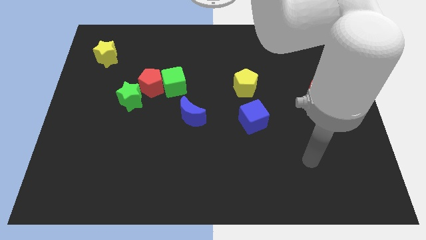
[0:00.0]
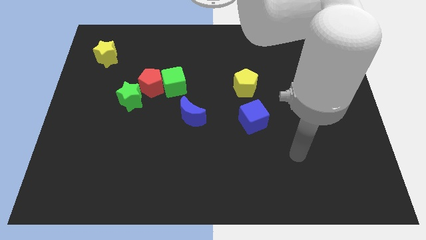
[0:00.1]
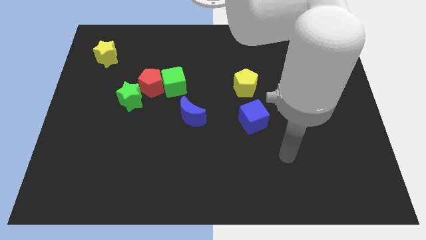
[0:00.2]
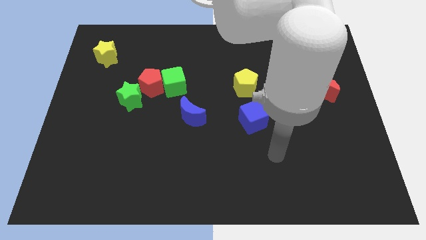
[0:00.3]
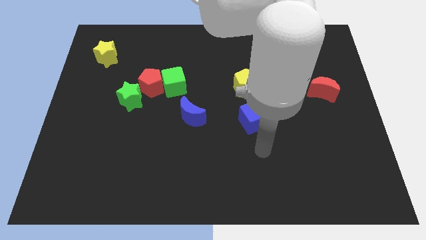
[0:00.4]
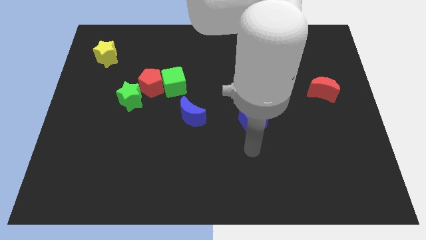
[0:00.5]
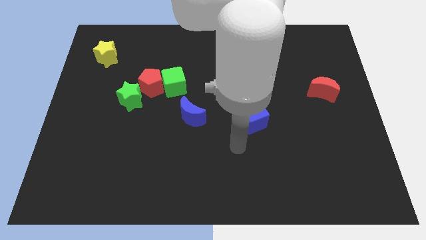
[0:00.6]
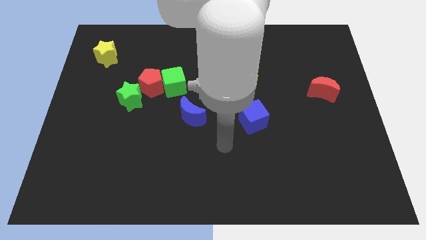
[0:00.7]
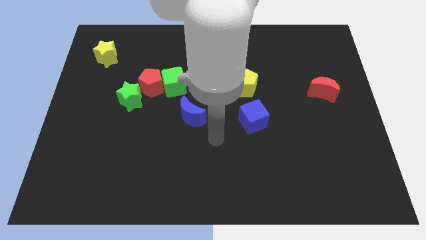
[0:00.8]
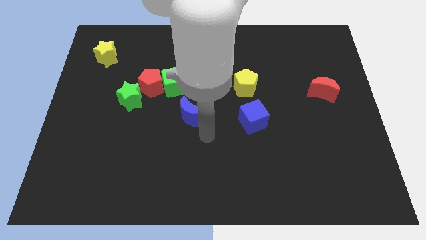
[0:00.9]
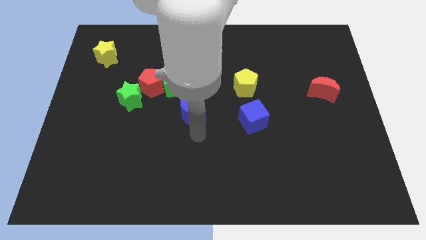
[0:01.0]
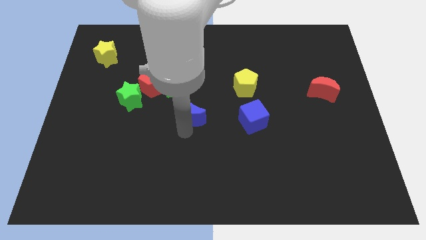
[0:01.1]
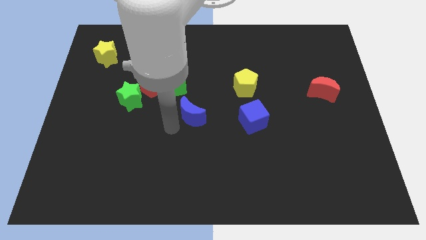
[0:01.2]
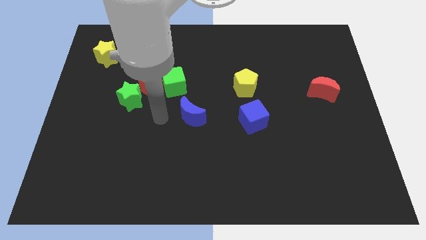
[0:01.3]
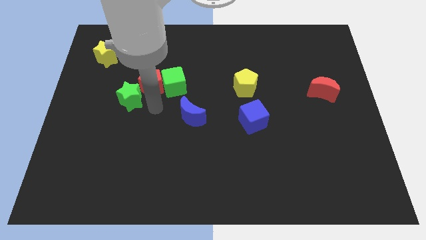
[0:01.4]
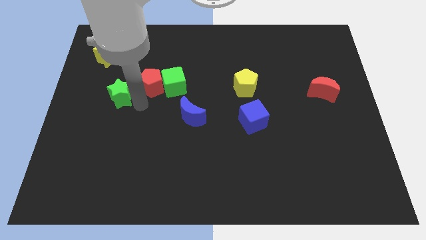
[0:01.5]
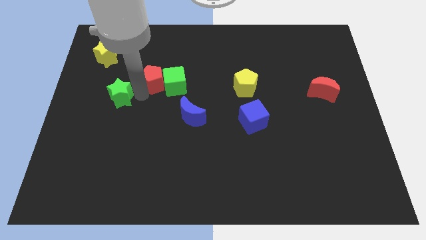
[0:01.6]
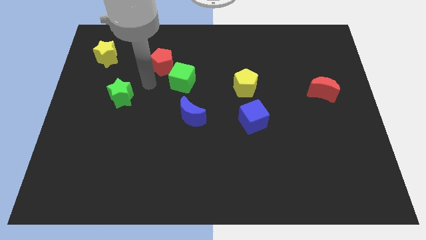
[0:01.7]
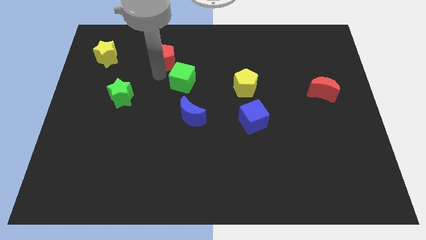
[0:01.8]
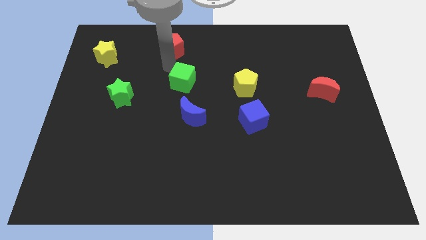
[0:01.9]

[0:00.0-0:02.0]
separate the green cube from the red pentagon

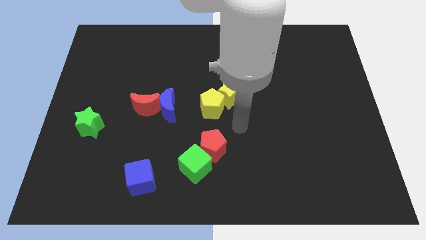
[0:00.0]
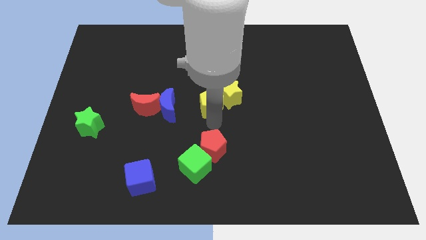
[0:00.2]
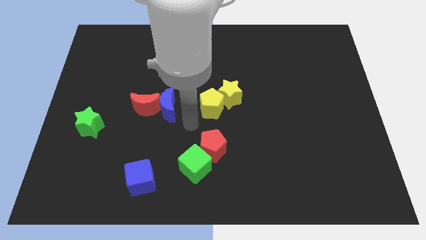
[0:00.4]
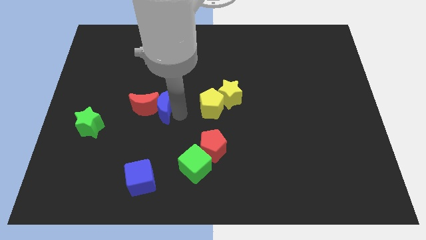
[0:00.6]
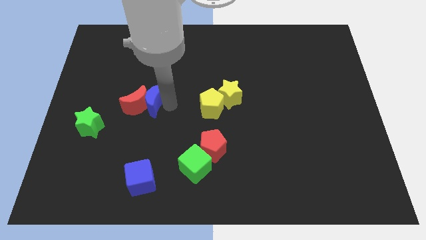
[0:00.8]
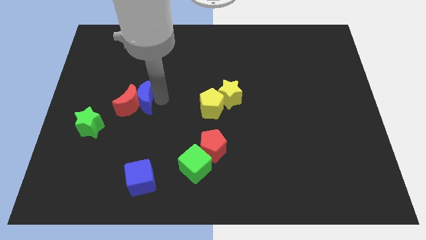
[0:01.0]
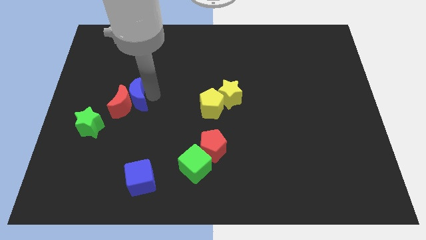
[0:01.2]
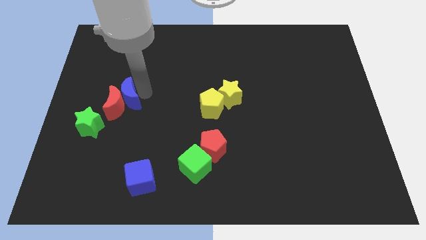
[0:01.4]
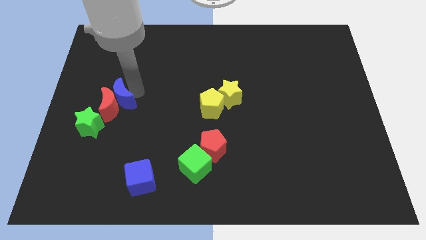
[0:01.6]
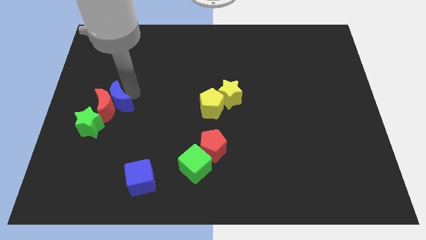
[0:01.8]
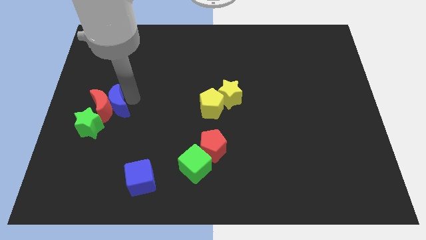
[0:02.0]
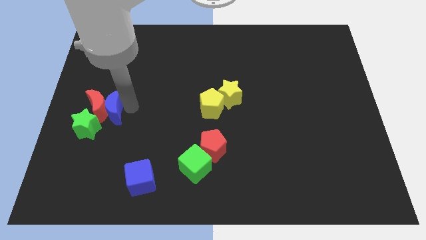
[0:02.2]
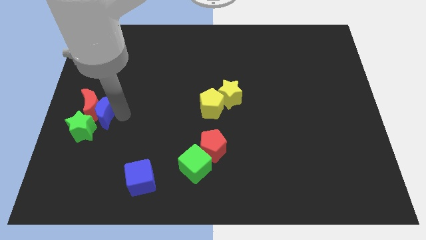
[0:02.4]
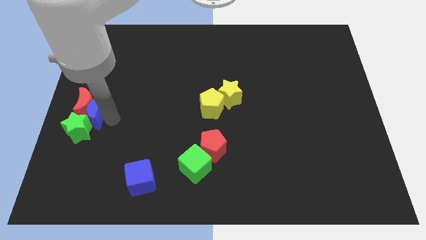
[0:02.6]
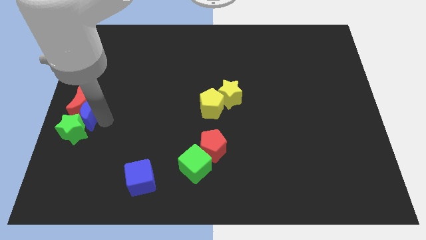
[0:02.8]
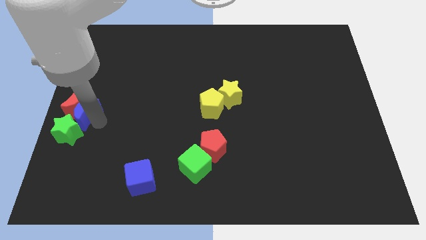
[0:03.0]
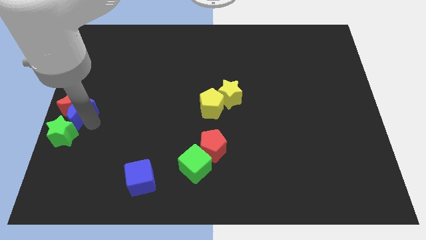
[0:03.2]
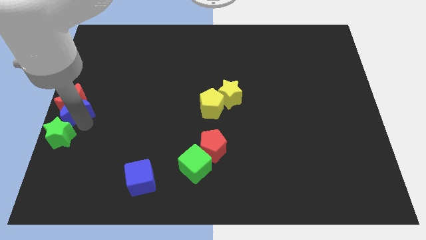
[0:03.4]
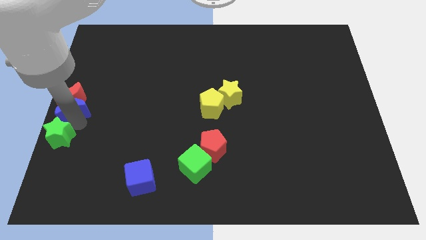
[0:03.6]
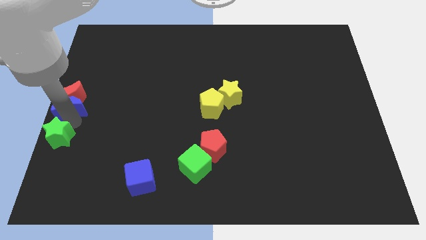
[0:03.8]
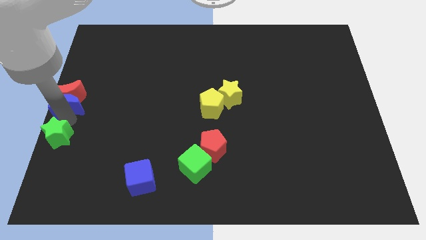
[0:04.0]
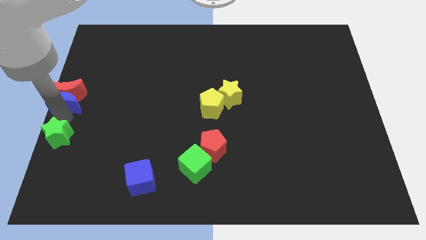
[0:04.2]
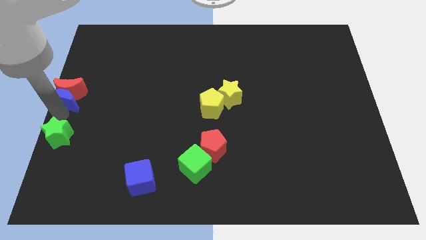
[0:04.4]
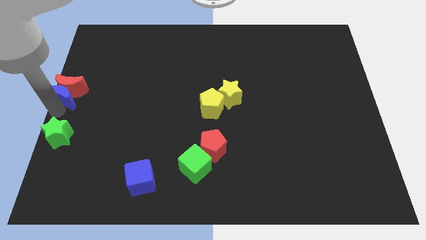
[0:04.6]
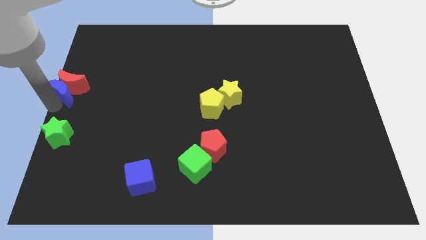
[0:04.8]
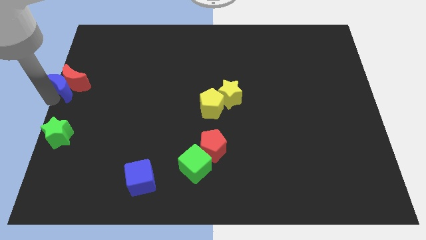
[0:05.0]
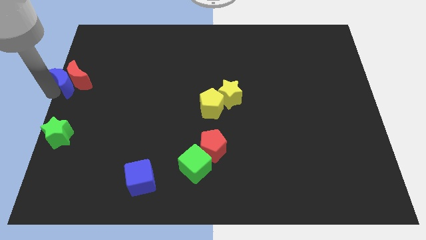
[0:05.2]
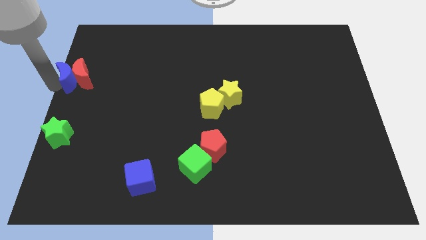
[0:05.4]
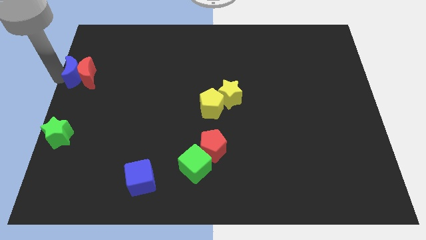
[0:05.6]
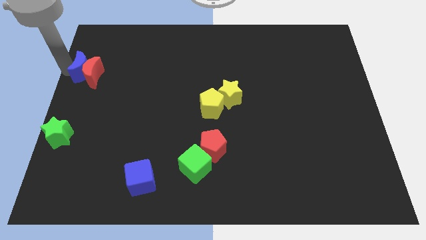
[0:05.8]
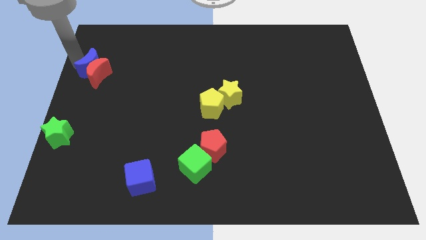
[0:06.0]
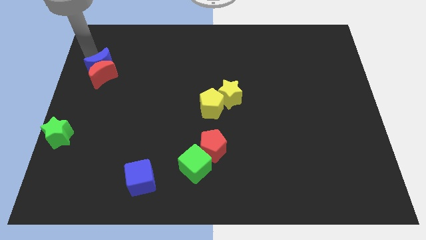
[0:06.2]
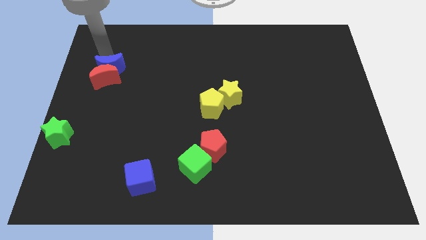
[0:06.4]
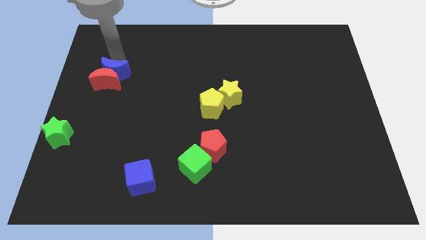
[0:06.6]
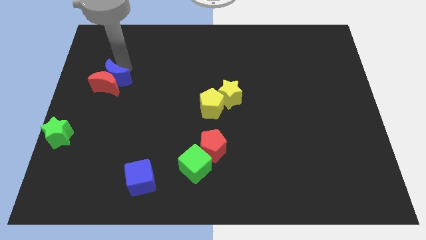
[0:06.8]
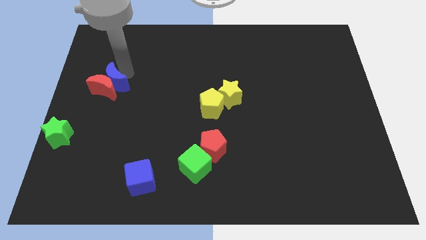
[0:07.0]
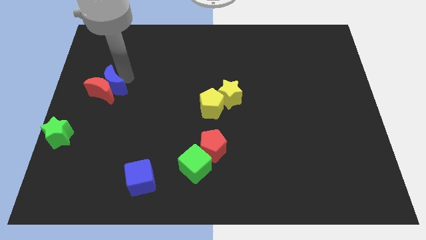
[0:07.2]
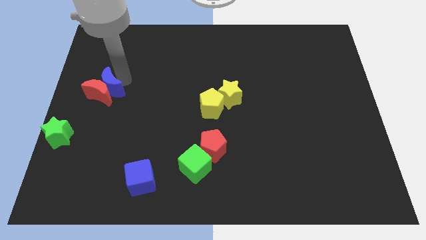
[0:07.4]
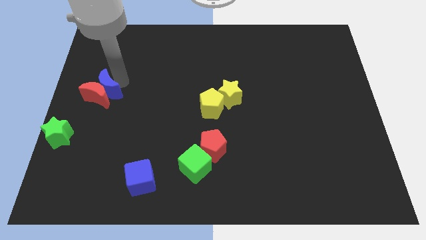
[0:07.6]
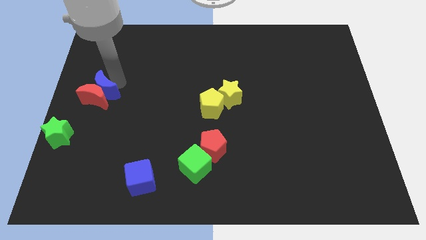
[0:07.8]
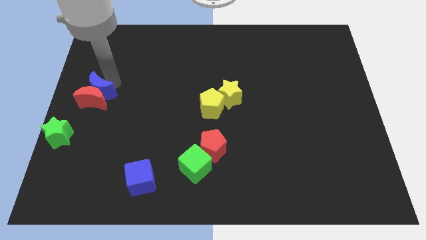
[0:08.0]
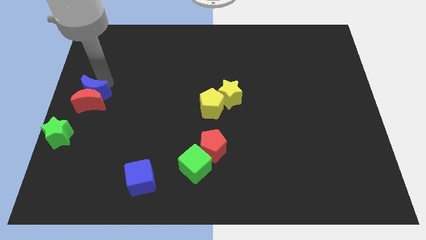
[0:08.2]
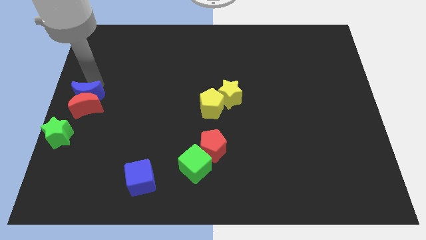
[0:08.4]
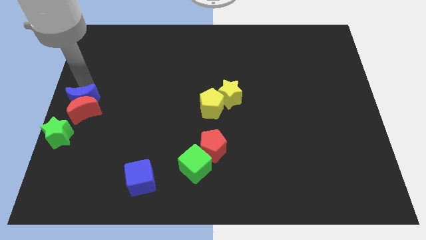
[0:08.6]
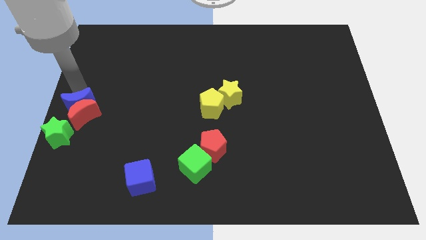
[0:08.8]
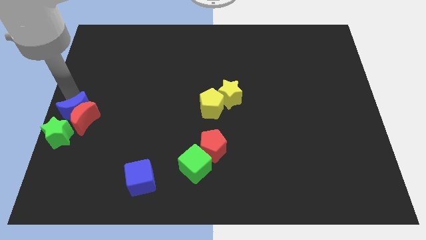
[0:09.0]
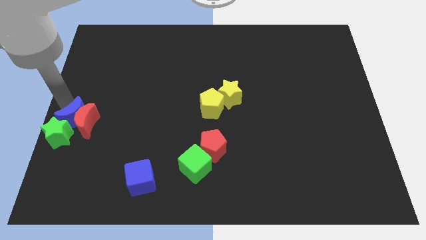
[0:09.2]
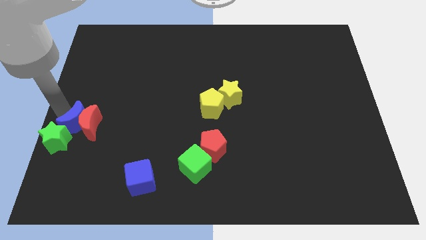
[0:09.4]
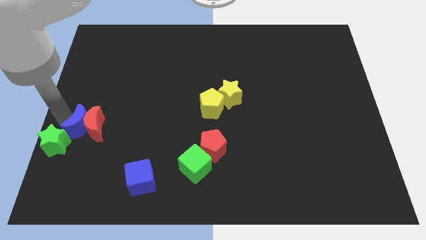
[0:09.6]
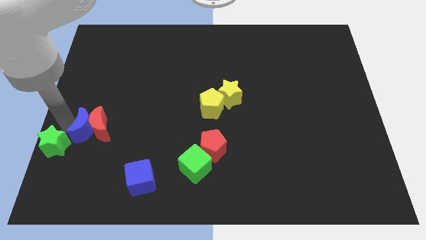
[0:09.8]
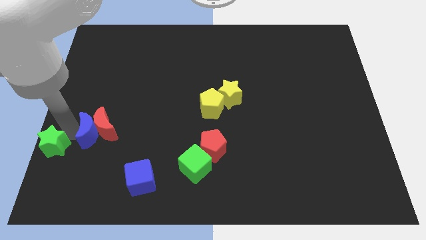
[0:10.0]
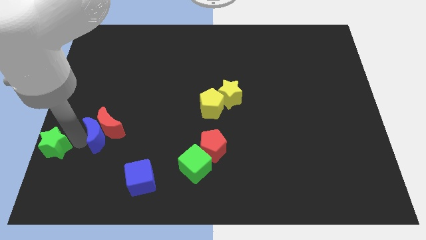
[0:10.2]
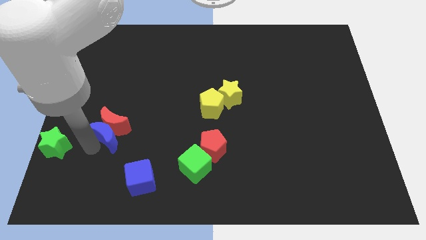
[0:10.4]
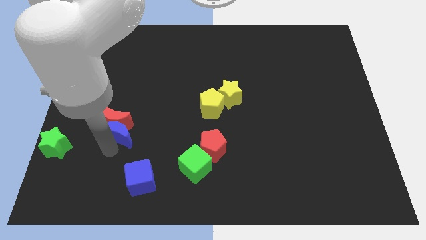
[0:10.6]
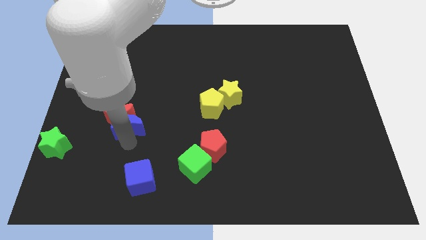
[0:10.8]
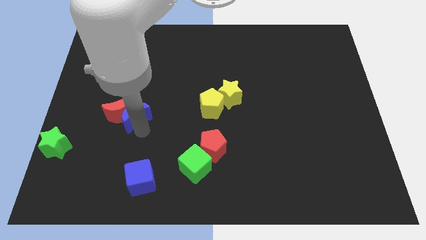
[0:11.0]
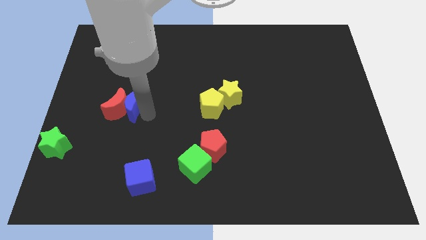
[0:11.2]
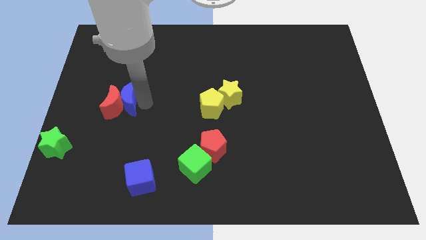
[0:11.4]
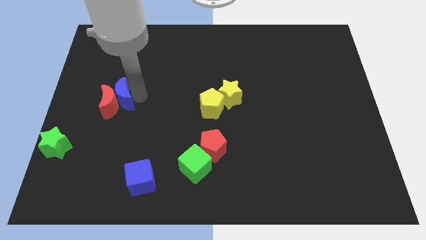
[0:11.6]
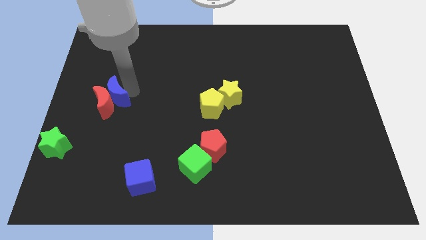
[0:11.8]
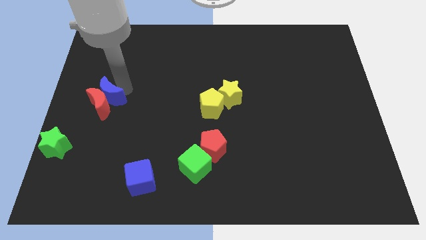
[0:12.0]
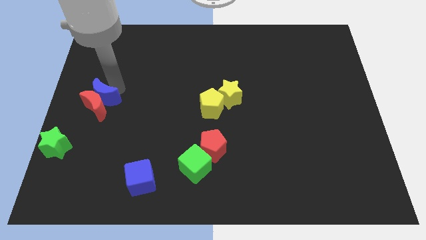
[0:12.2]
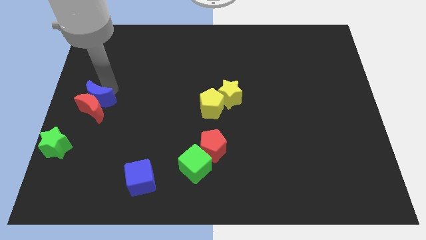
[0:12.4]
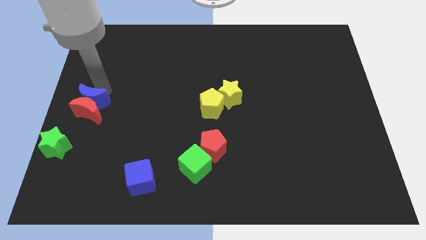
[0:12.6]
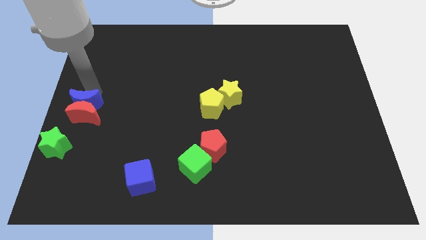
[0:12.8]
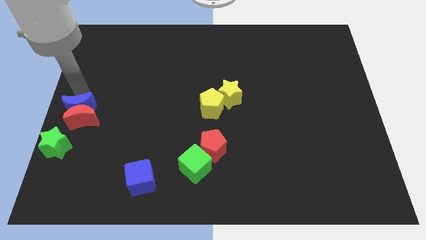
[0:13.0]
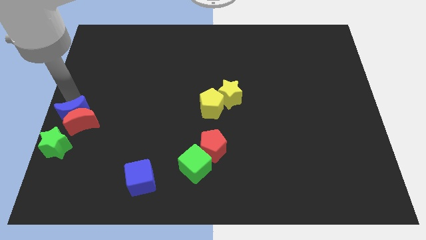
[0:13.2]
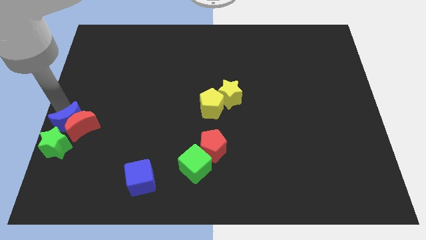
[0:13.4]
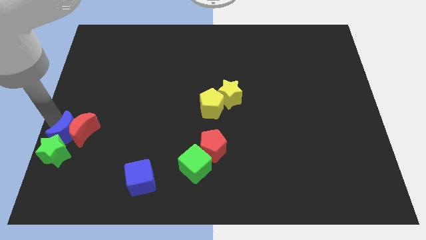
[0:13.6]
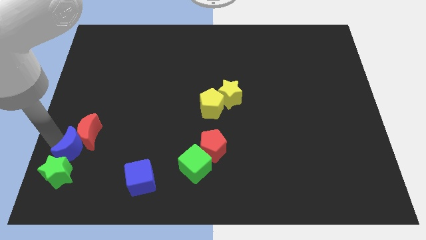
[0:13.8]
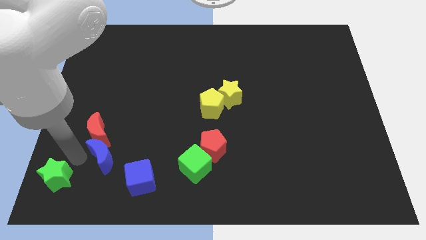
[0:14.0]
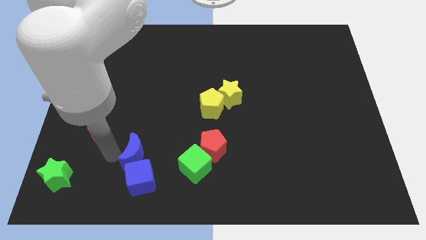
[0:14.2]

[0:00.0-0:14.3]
move the red moon away from the blue moon

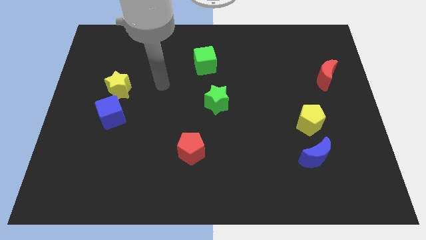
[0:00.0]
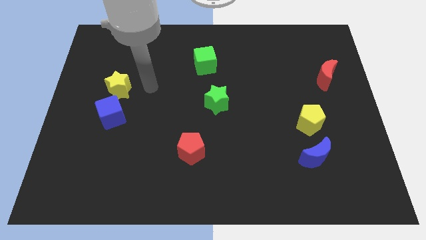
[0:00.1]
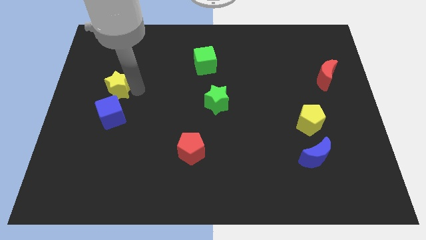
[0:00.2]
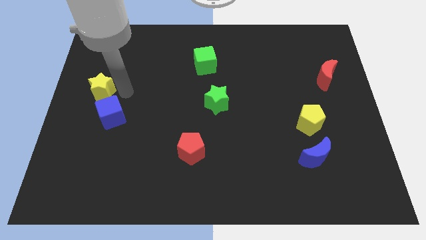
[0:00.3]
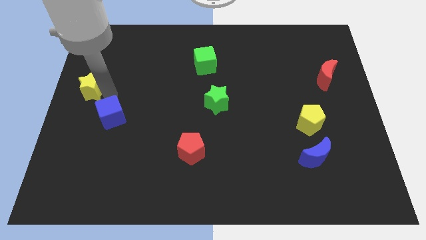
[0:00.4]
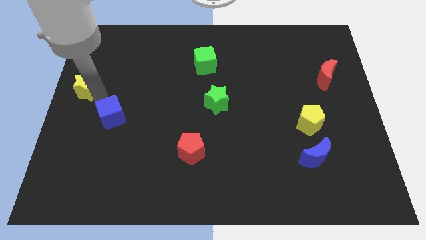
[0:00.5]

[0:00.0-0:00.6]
move the blue cube away from the yellow star
